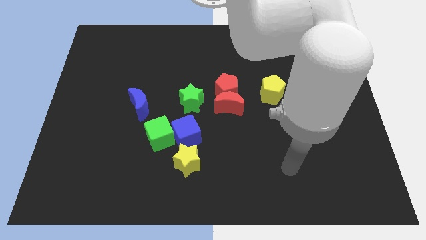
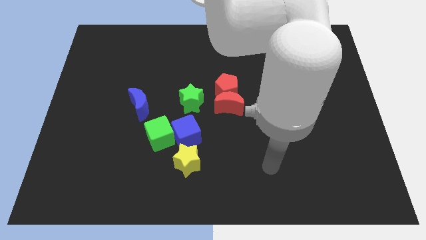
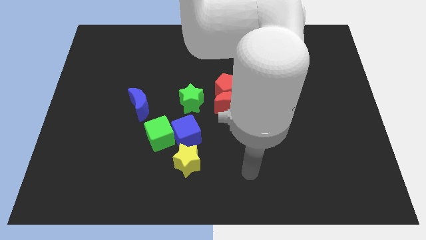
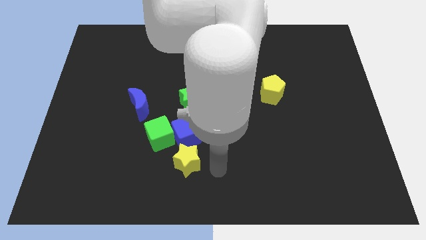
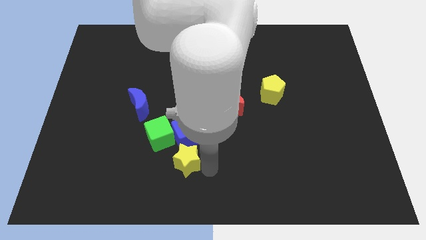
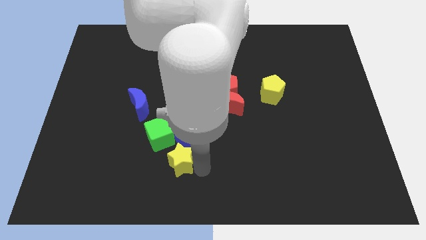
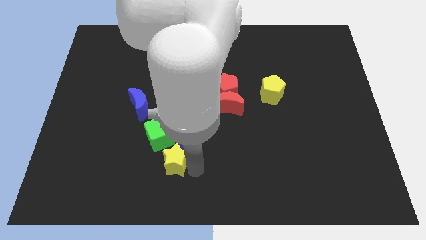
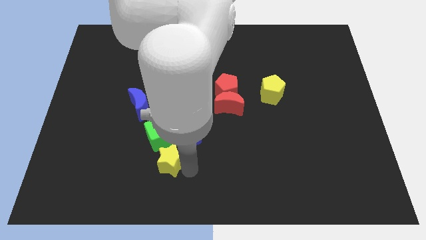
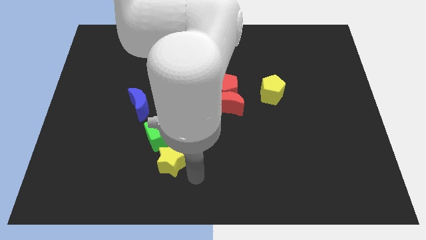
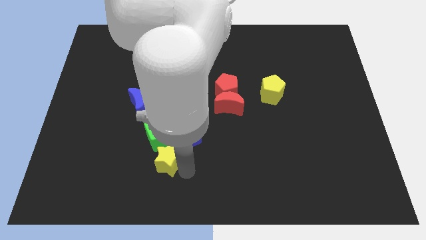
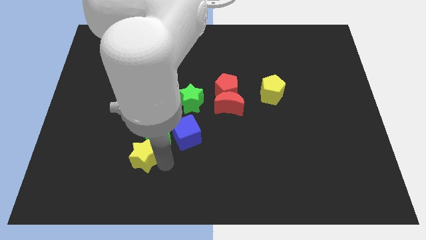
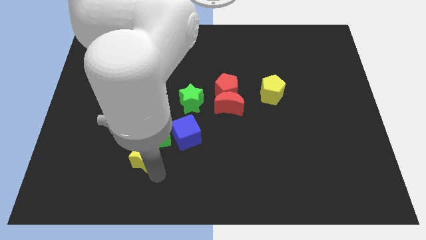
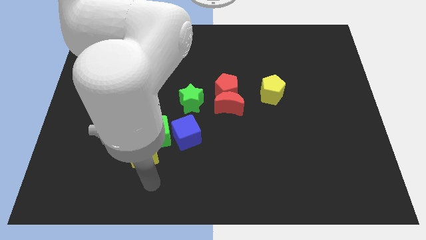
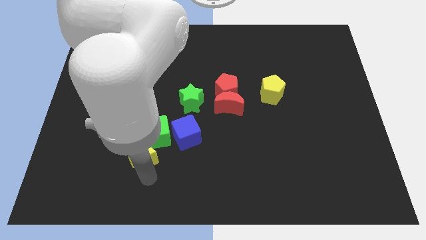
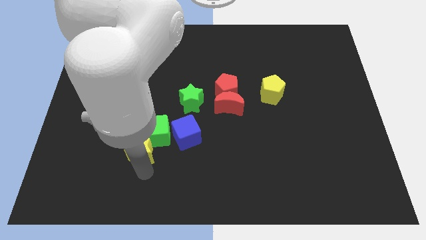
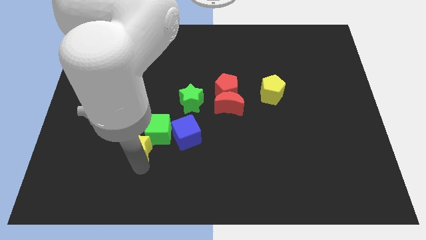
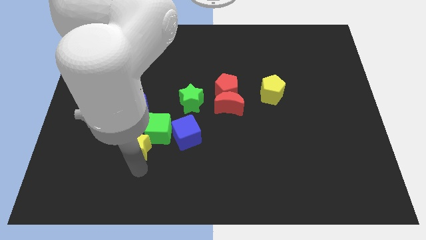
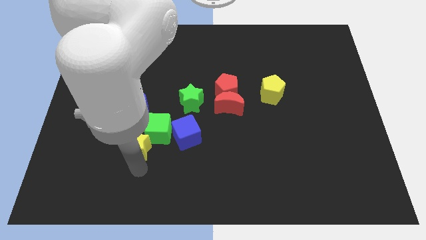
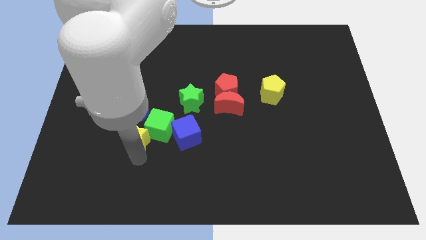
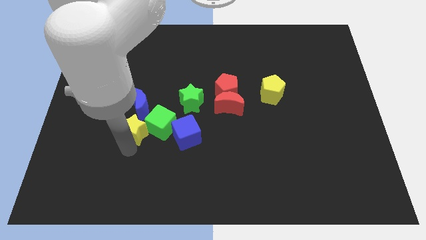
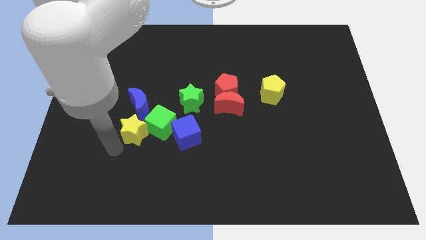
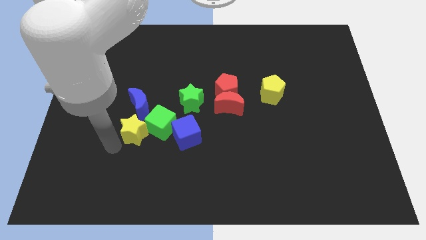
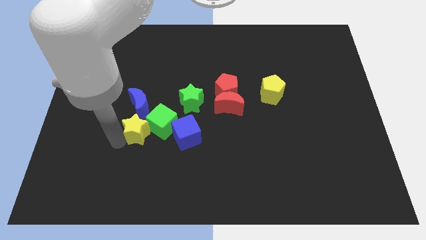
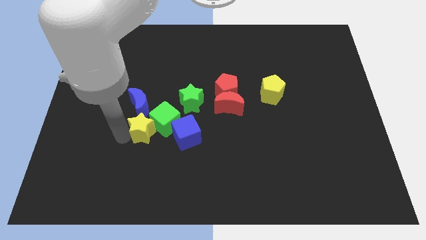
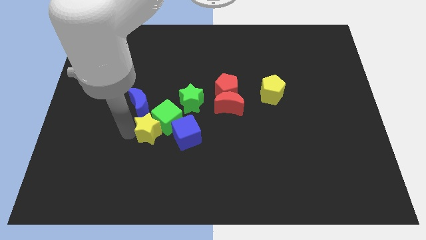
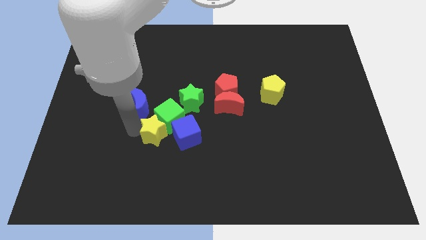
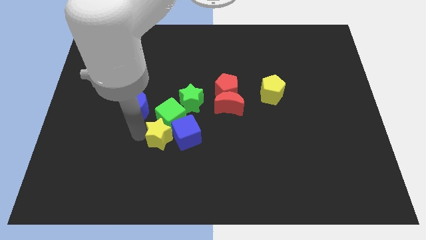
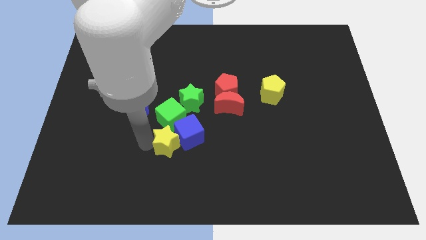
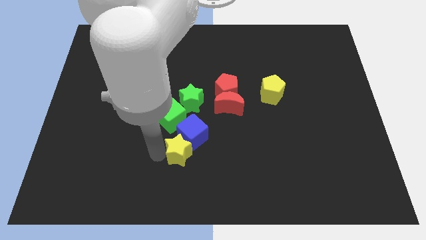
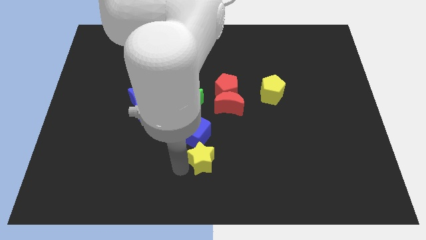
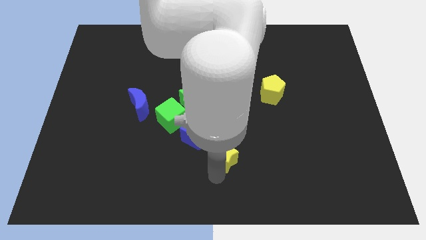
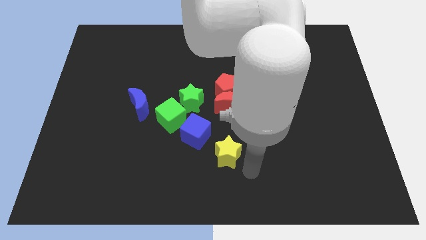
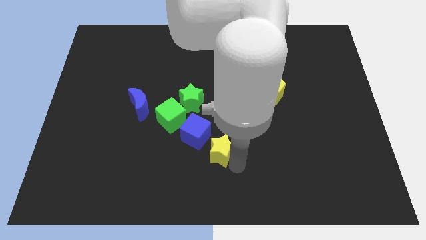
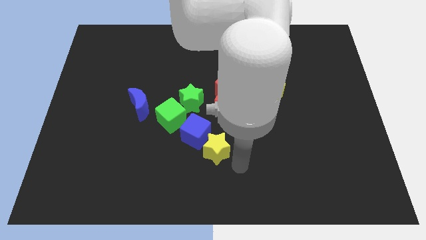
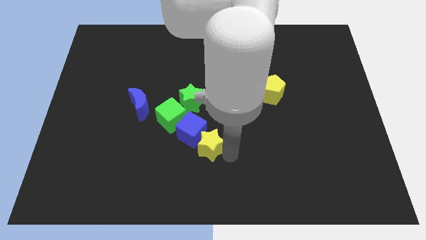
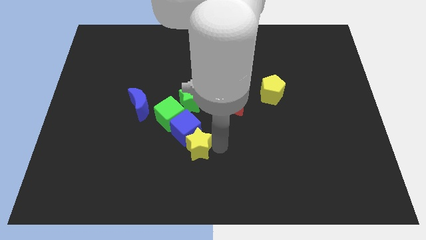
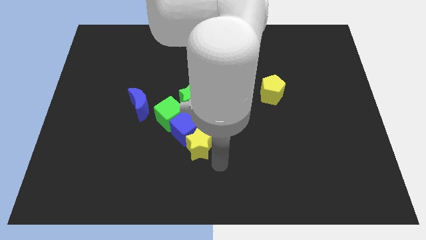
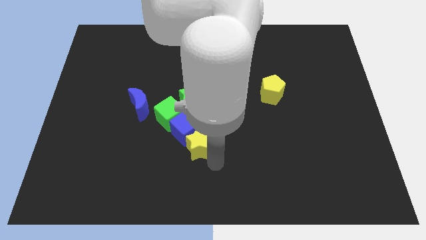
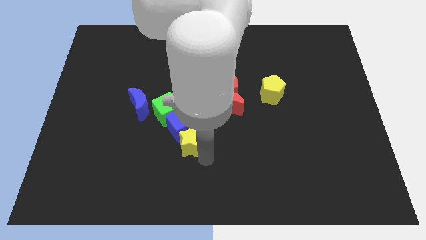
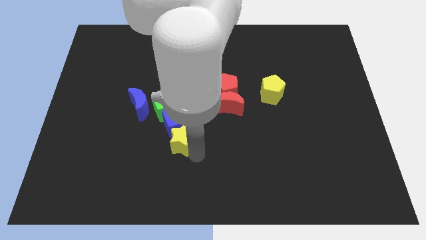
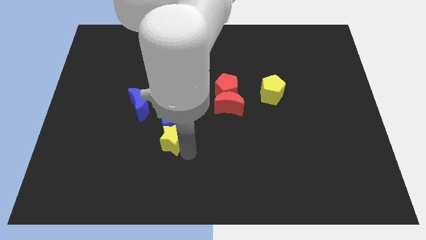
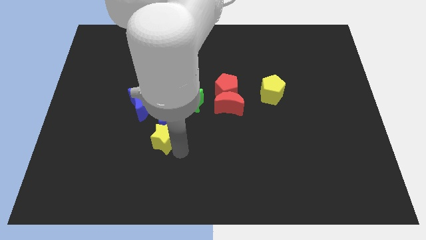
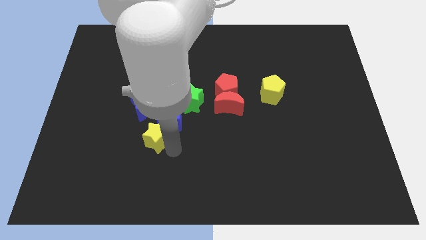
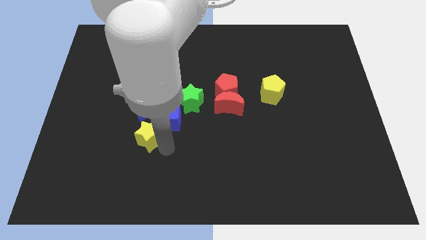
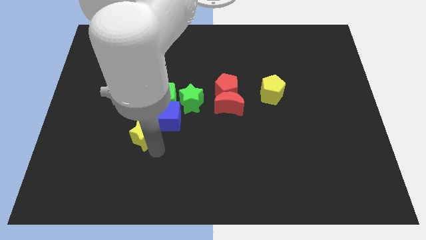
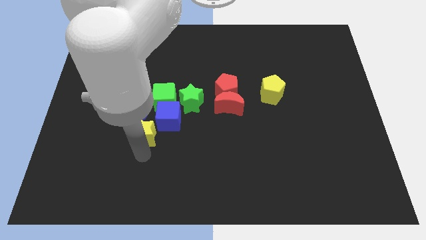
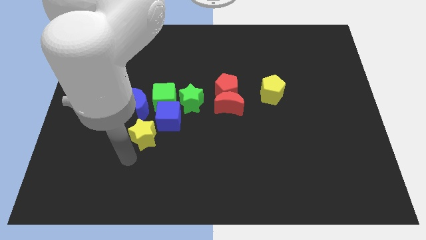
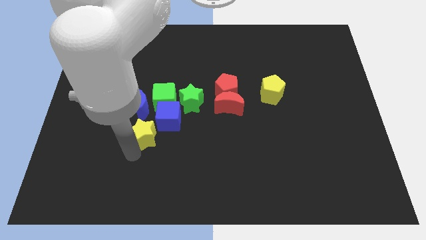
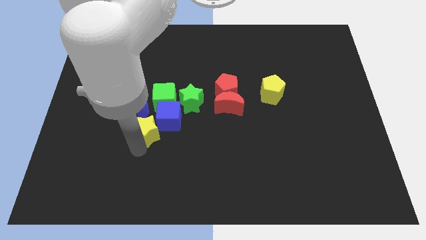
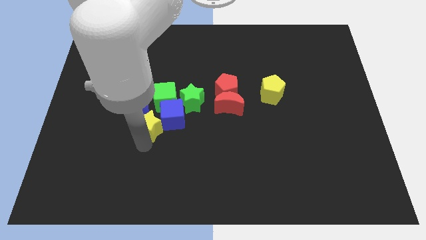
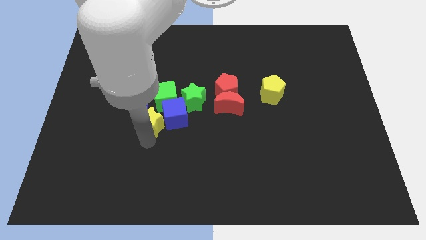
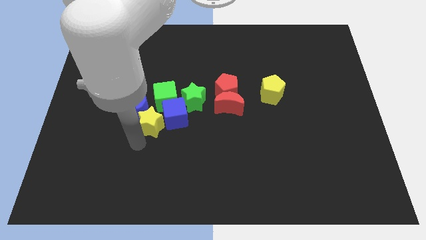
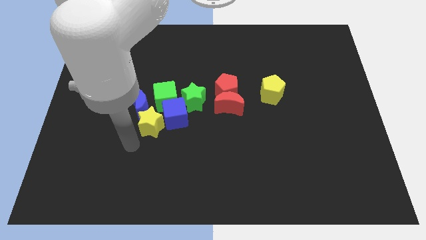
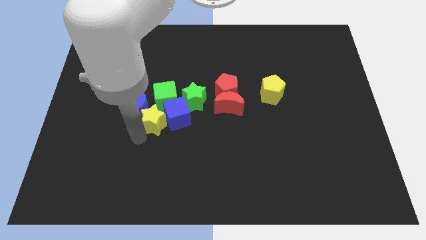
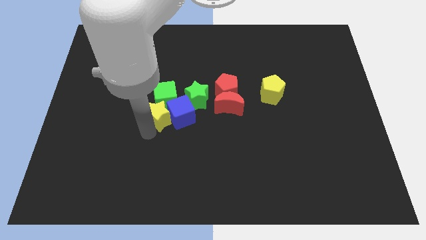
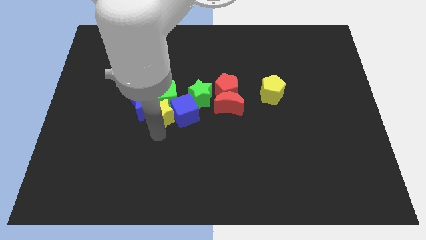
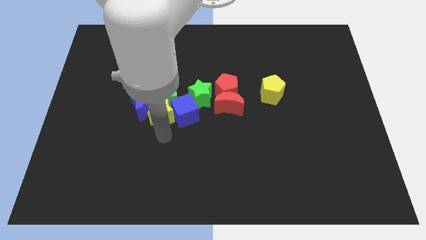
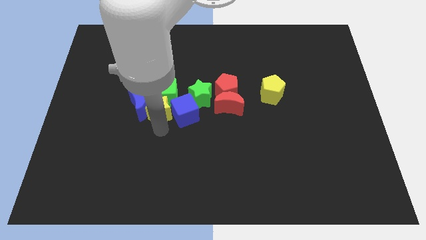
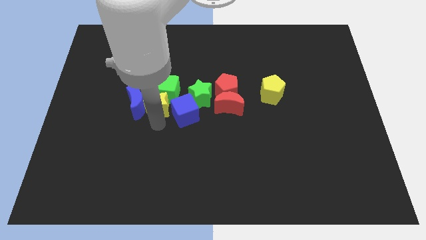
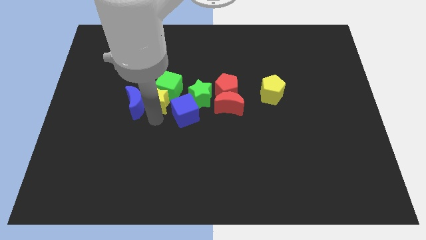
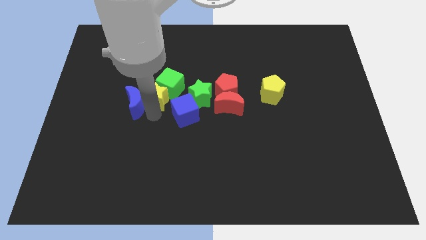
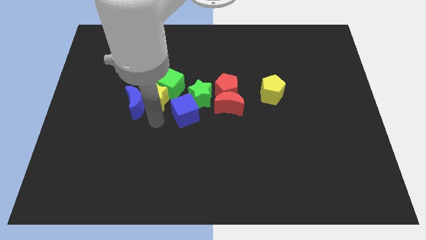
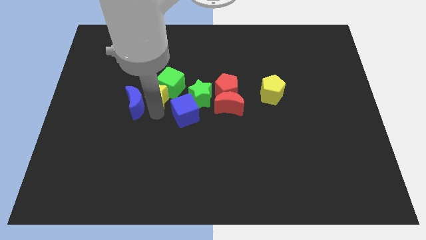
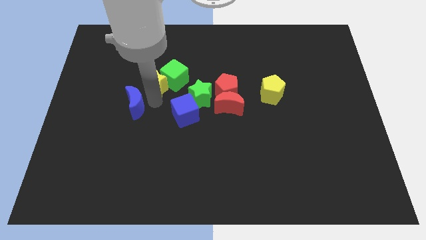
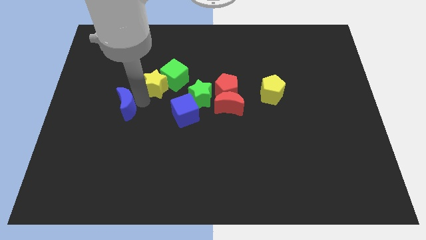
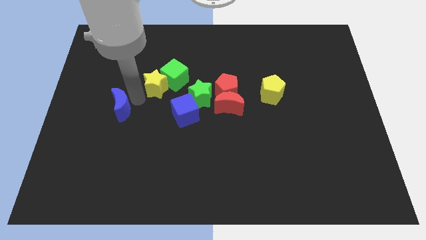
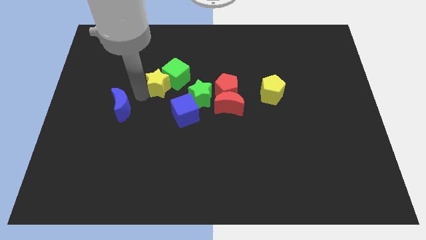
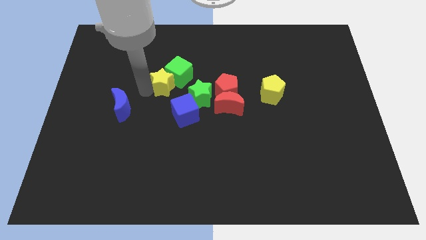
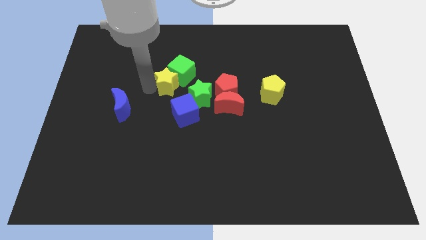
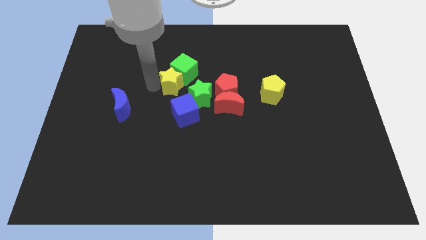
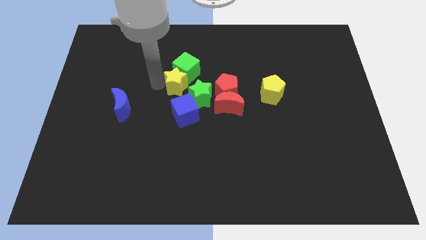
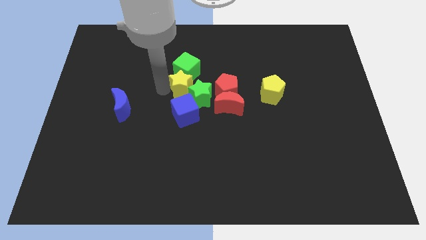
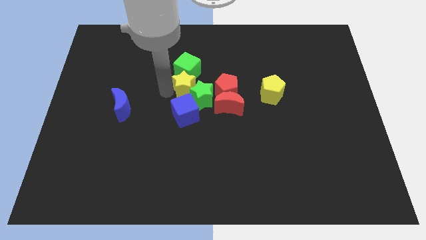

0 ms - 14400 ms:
slide the yellow star above the green star
